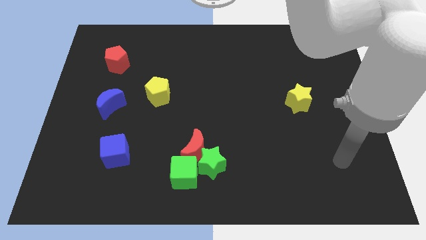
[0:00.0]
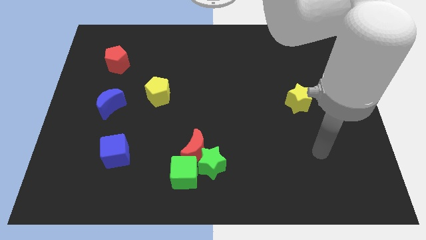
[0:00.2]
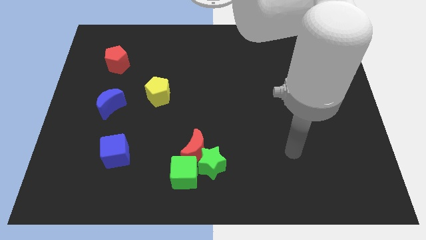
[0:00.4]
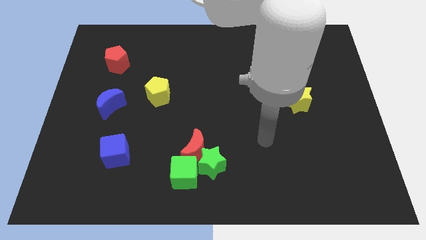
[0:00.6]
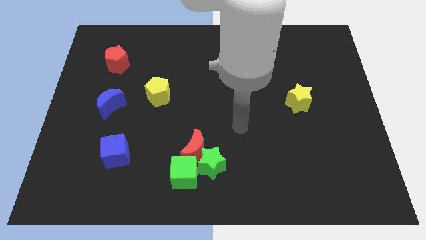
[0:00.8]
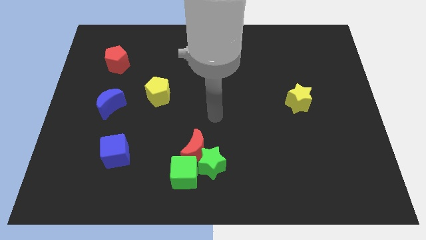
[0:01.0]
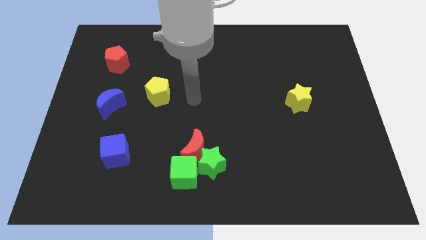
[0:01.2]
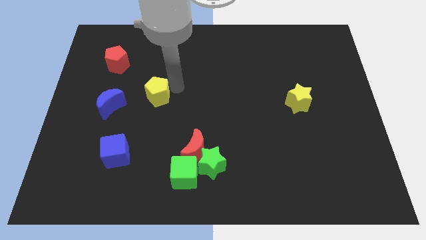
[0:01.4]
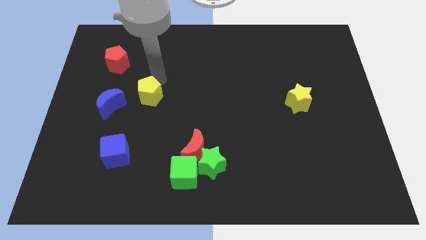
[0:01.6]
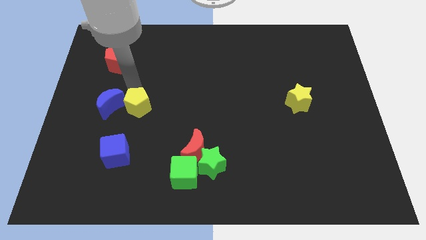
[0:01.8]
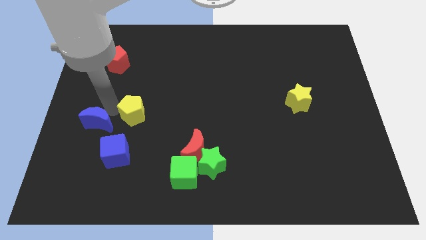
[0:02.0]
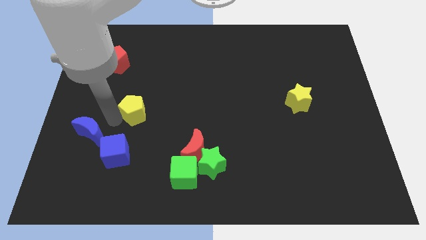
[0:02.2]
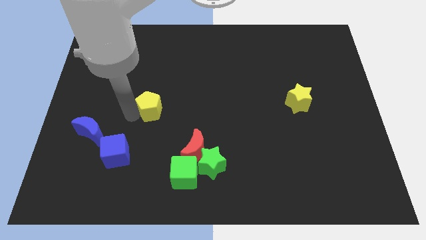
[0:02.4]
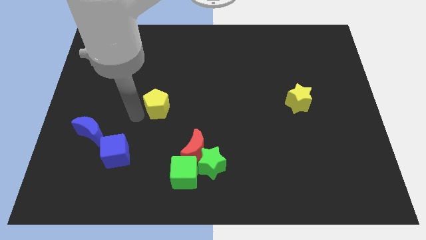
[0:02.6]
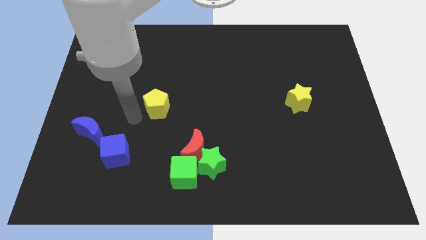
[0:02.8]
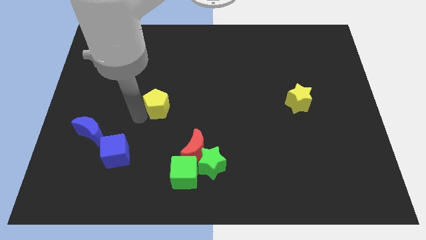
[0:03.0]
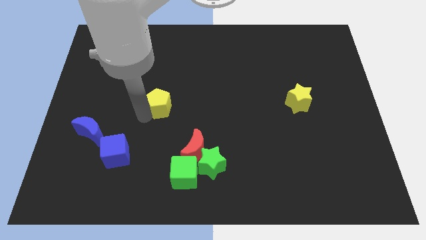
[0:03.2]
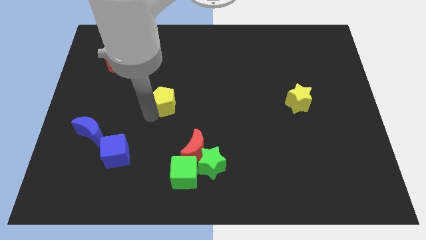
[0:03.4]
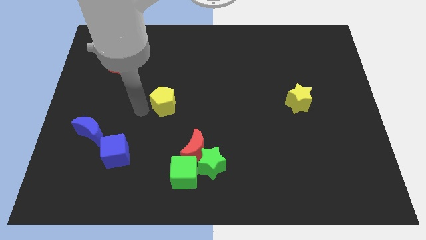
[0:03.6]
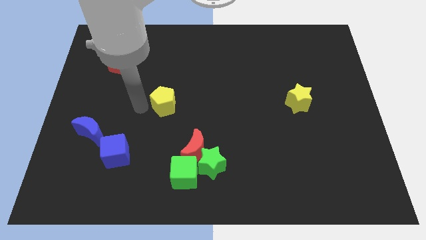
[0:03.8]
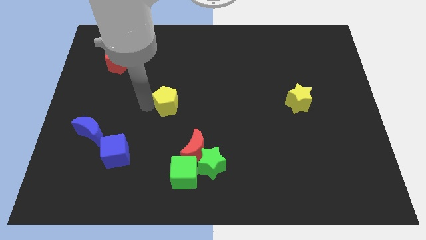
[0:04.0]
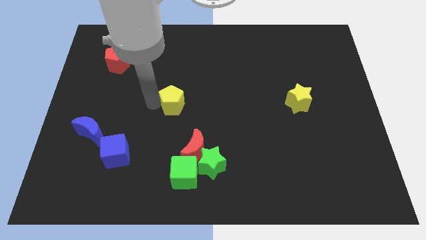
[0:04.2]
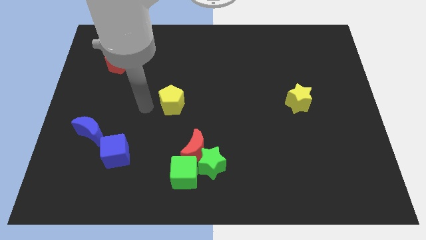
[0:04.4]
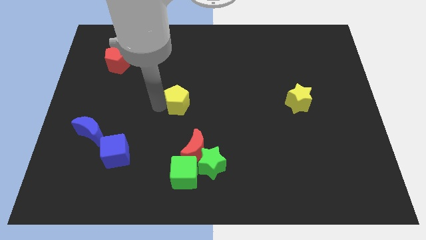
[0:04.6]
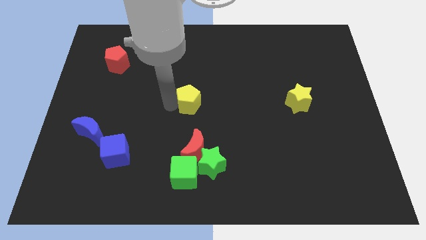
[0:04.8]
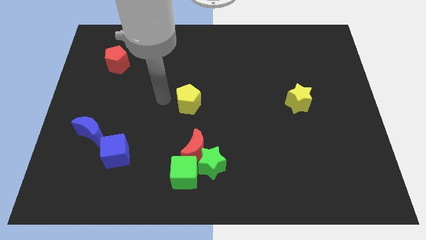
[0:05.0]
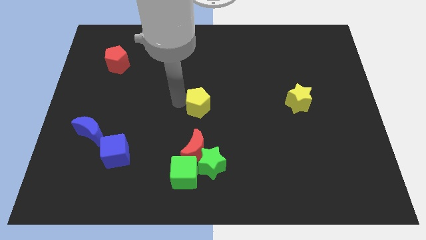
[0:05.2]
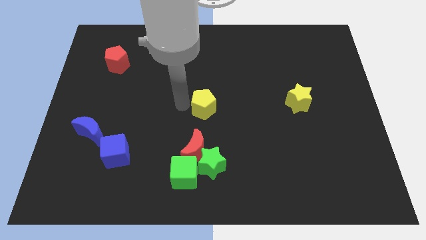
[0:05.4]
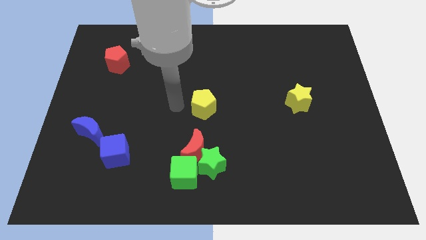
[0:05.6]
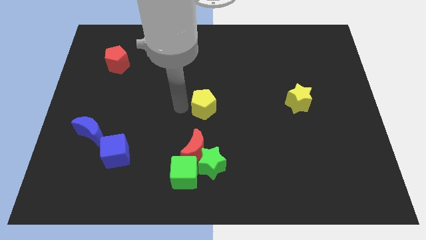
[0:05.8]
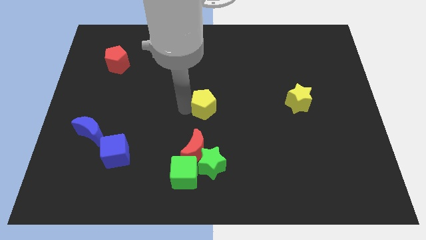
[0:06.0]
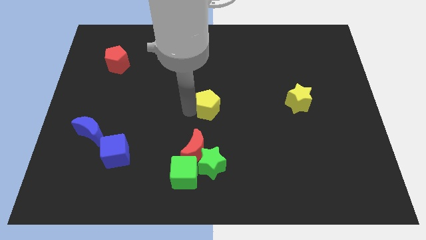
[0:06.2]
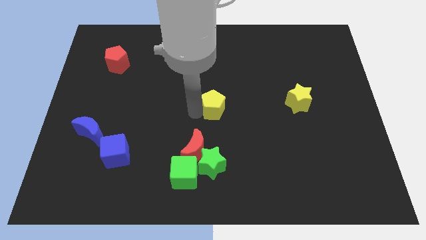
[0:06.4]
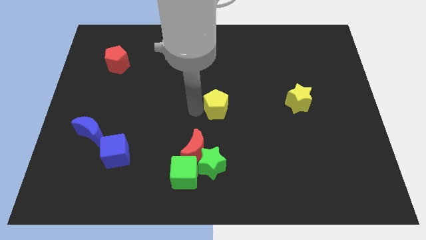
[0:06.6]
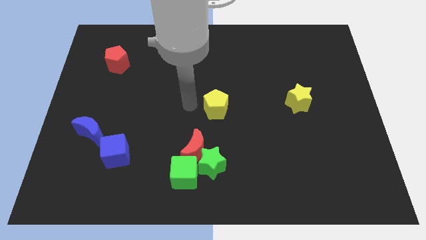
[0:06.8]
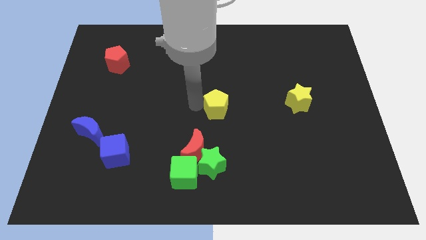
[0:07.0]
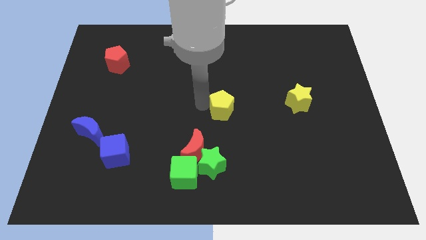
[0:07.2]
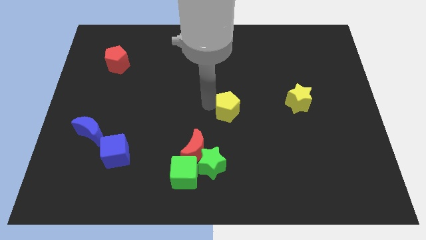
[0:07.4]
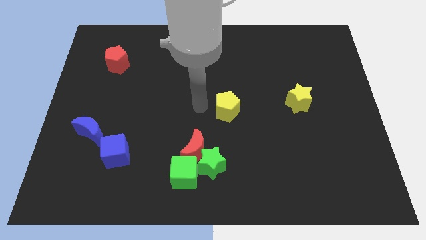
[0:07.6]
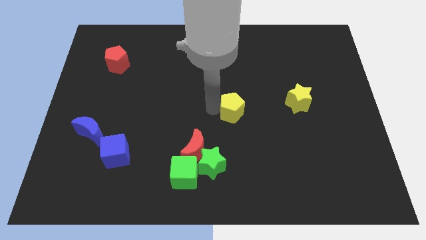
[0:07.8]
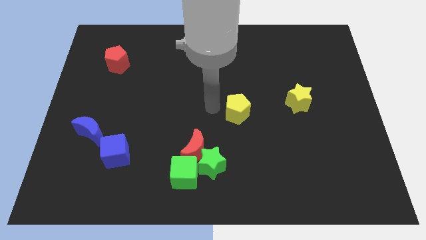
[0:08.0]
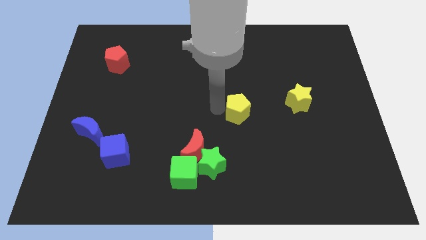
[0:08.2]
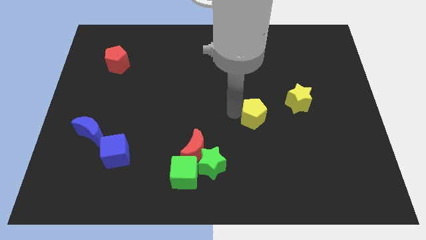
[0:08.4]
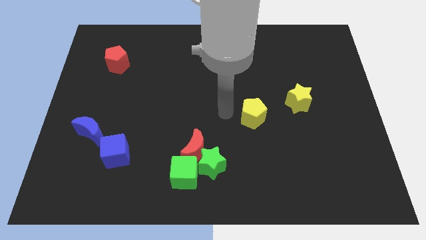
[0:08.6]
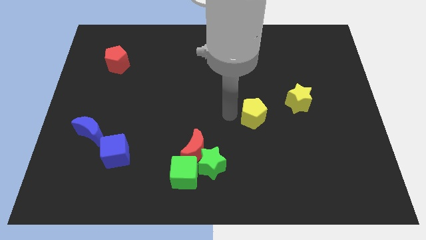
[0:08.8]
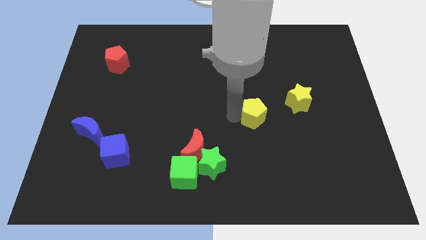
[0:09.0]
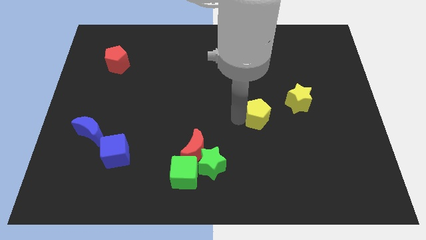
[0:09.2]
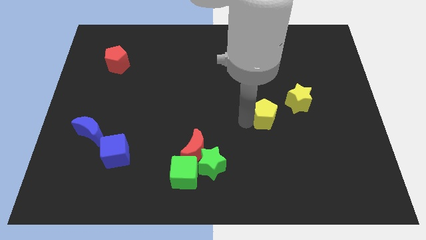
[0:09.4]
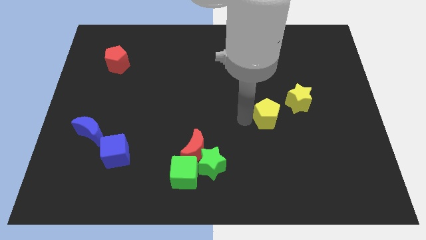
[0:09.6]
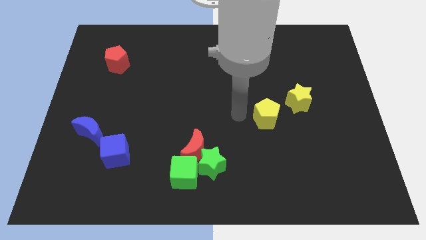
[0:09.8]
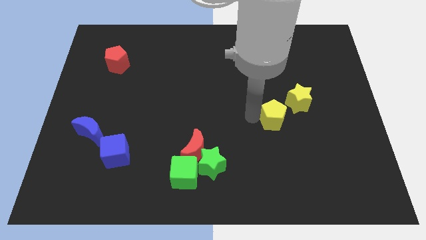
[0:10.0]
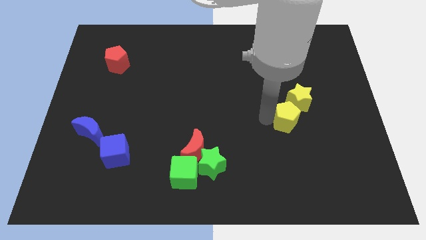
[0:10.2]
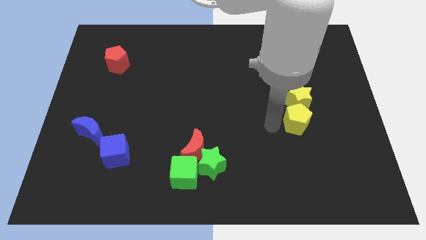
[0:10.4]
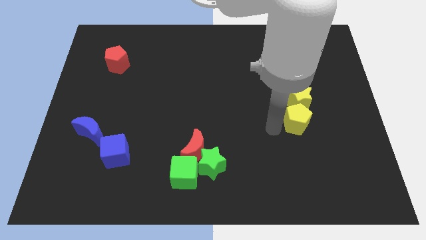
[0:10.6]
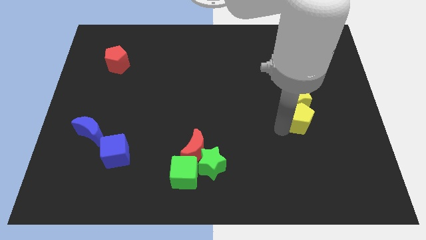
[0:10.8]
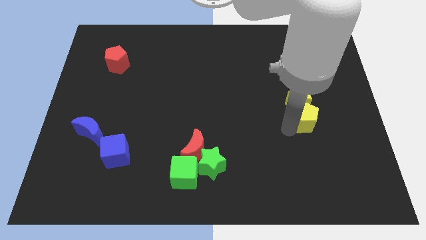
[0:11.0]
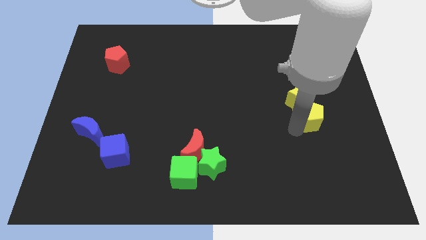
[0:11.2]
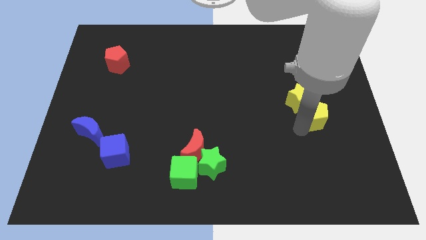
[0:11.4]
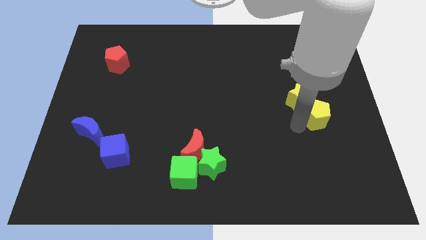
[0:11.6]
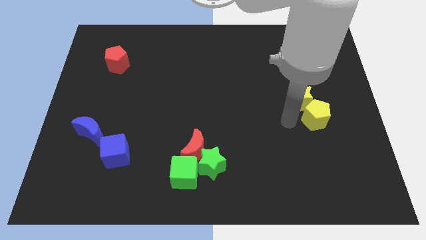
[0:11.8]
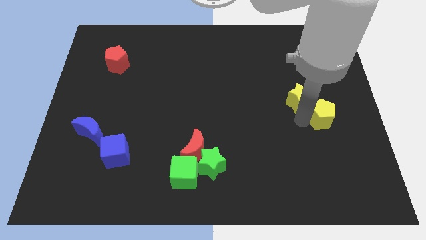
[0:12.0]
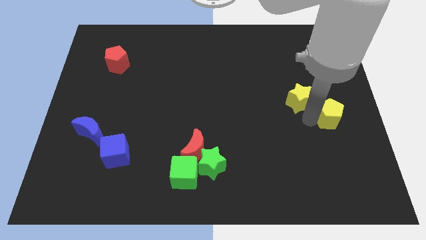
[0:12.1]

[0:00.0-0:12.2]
put the yellow pentagon to the center right
